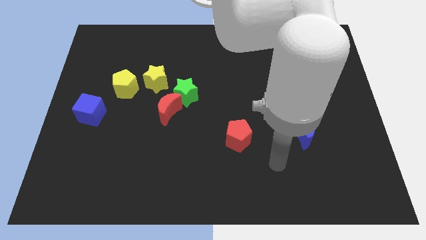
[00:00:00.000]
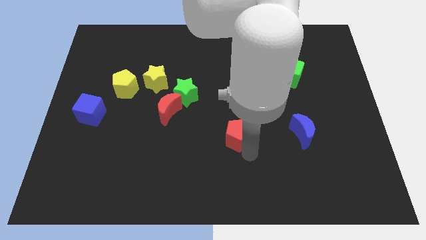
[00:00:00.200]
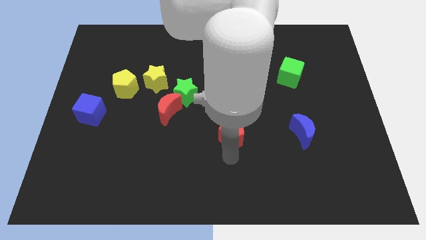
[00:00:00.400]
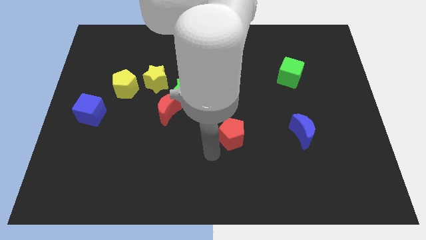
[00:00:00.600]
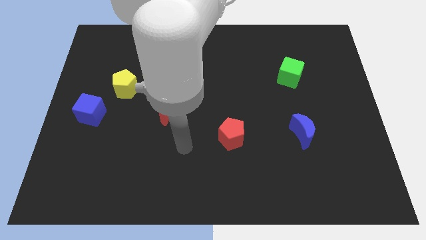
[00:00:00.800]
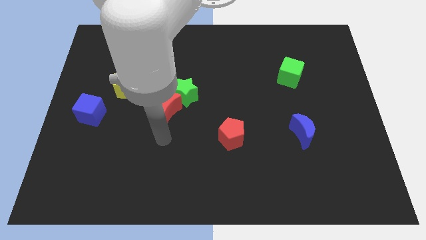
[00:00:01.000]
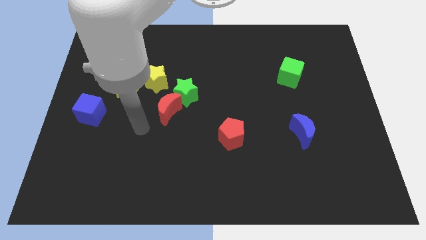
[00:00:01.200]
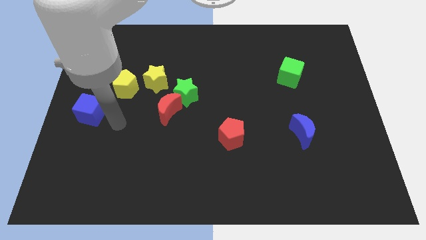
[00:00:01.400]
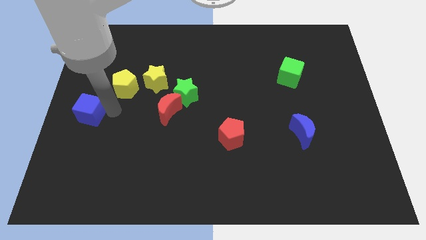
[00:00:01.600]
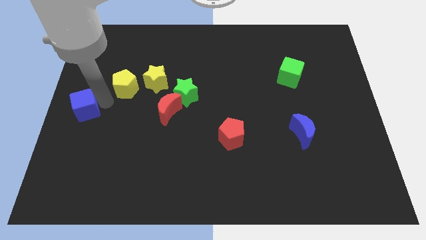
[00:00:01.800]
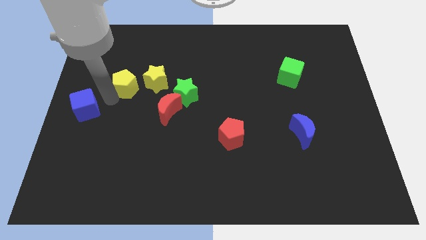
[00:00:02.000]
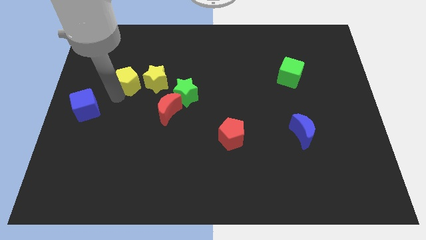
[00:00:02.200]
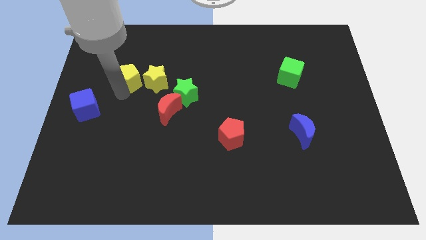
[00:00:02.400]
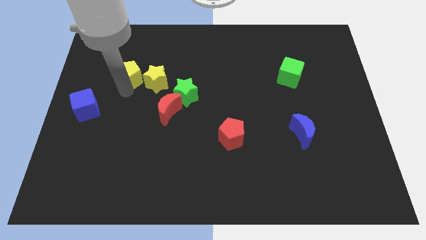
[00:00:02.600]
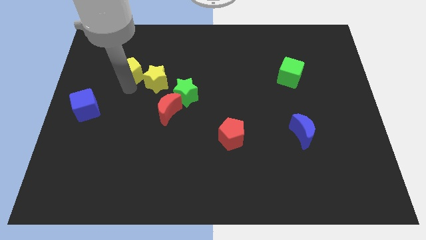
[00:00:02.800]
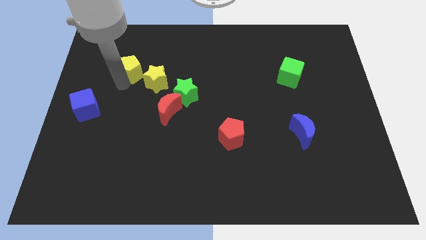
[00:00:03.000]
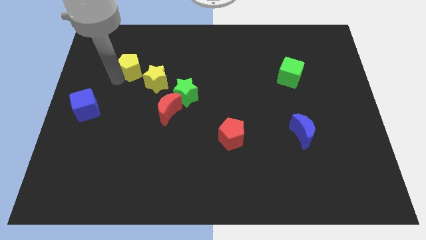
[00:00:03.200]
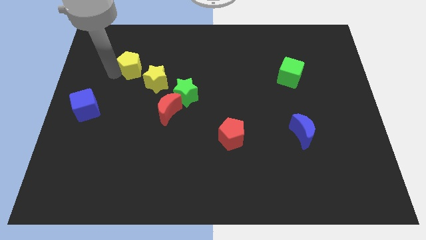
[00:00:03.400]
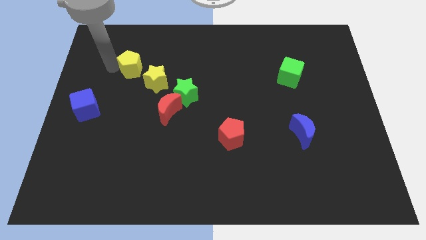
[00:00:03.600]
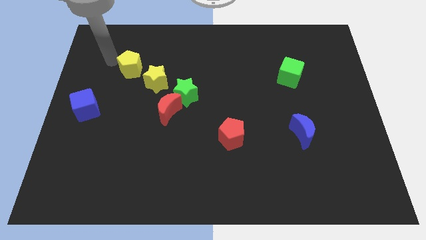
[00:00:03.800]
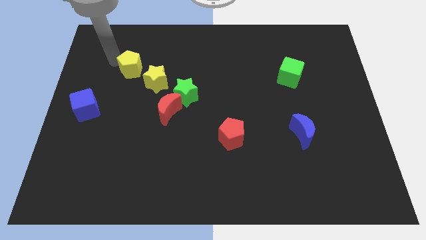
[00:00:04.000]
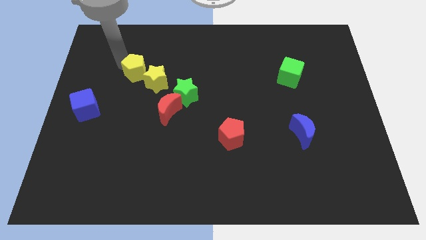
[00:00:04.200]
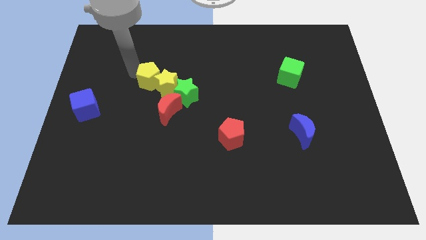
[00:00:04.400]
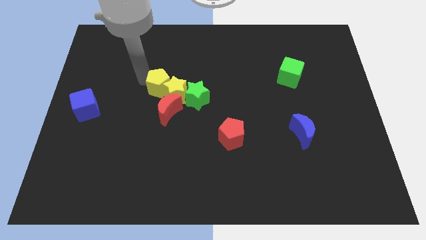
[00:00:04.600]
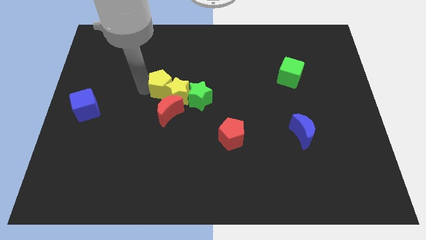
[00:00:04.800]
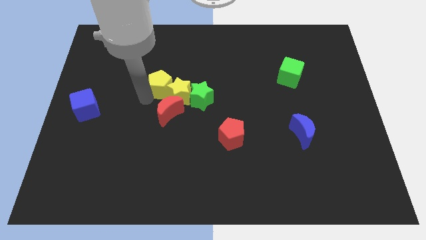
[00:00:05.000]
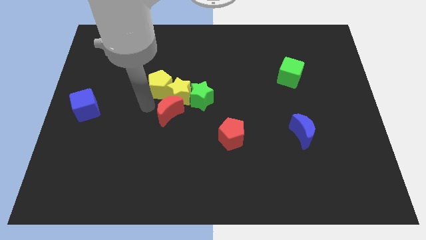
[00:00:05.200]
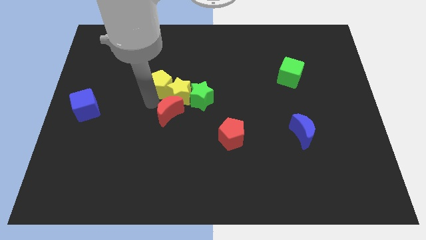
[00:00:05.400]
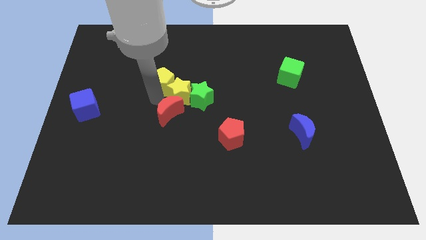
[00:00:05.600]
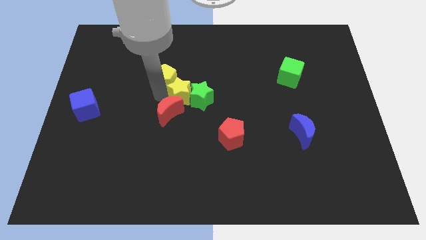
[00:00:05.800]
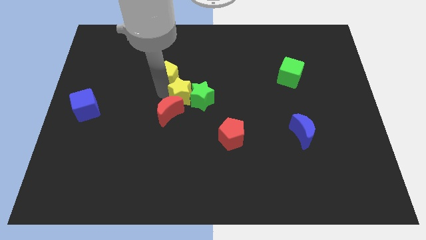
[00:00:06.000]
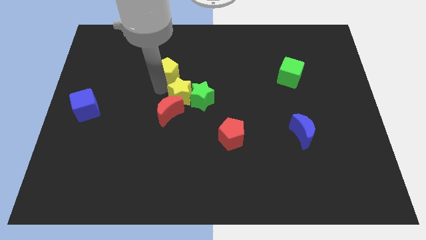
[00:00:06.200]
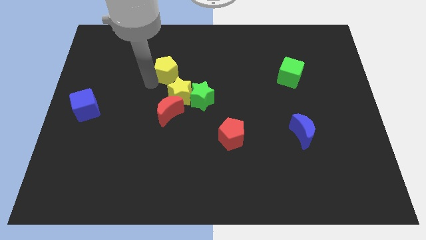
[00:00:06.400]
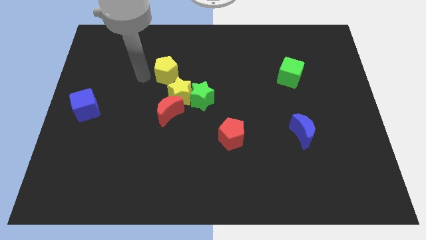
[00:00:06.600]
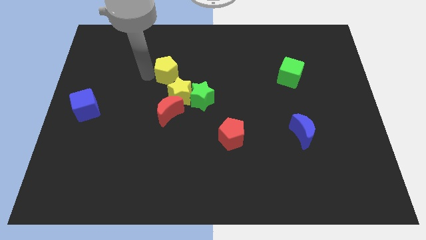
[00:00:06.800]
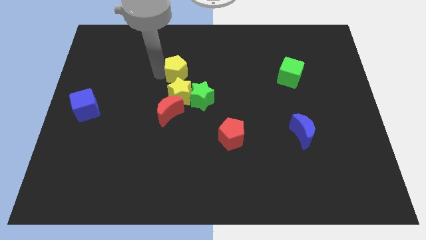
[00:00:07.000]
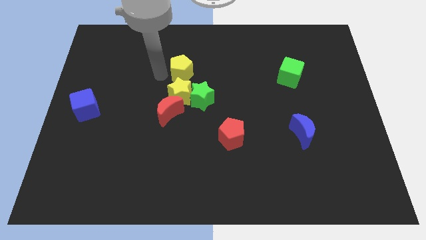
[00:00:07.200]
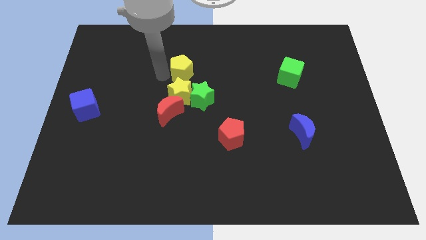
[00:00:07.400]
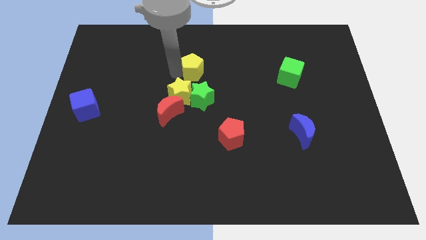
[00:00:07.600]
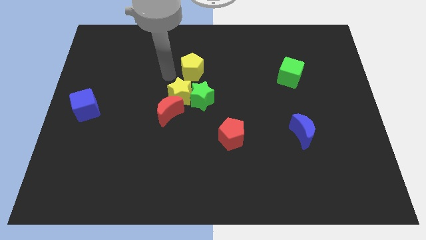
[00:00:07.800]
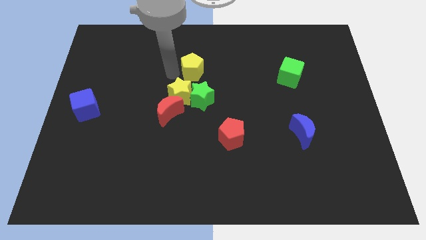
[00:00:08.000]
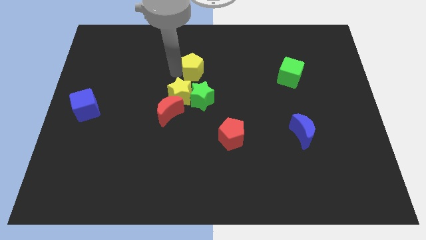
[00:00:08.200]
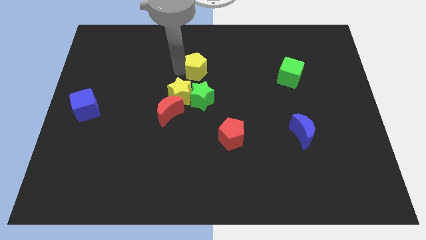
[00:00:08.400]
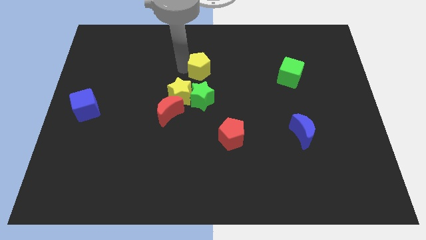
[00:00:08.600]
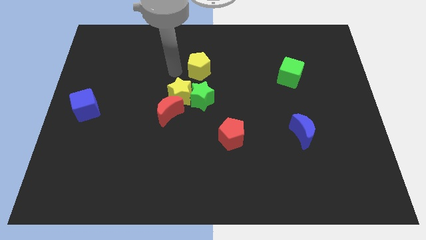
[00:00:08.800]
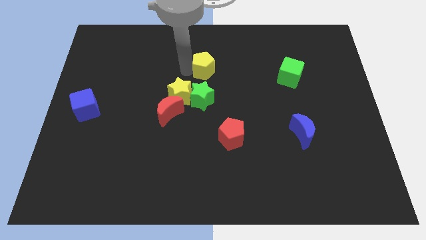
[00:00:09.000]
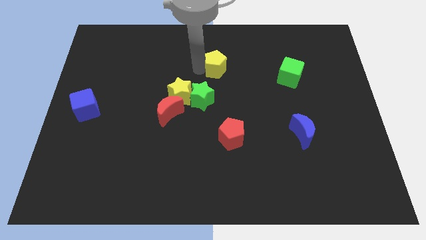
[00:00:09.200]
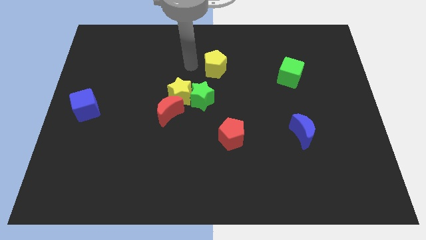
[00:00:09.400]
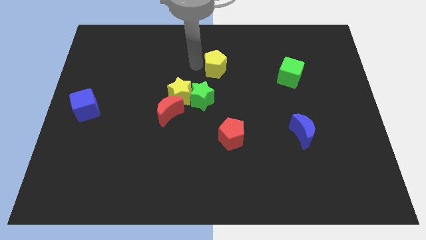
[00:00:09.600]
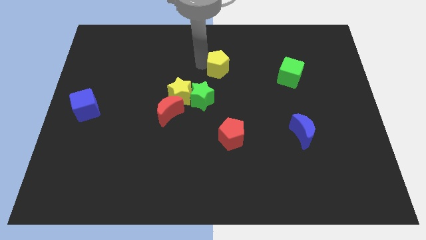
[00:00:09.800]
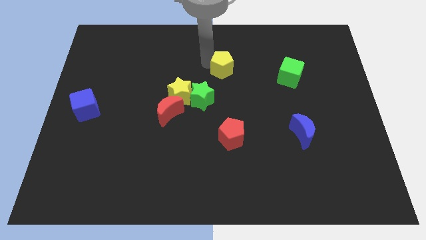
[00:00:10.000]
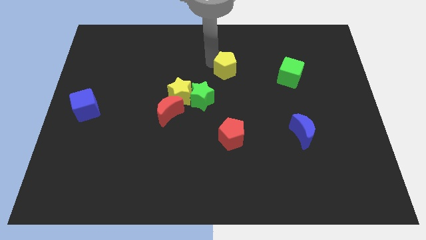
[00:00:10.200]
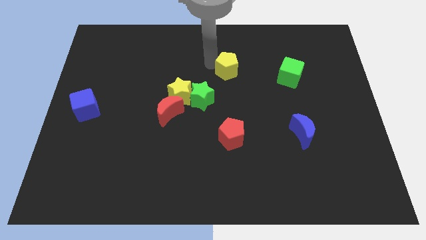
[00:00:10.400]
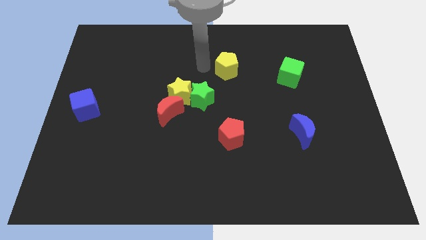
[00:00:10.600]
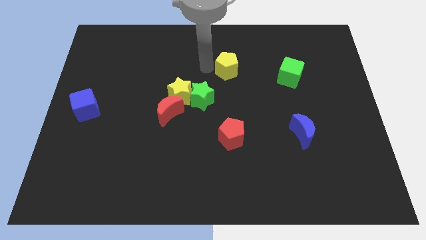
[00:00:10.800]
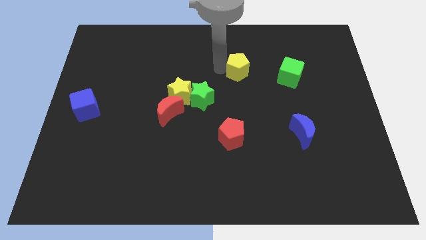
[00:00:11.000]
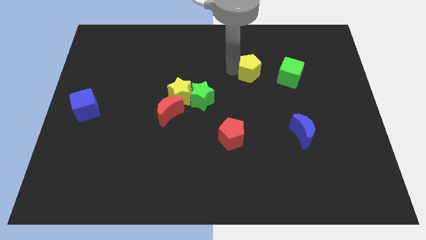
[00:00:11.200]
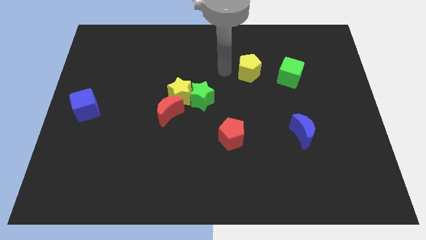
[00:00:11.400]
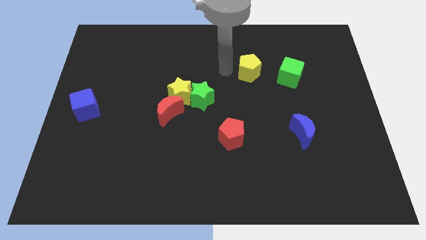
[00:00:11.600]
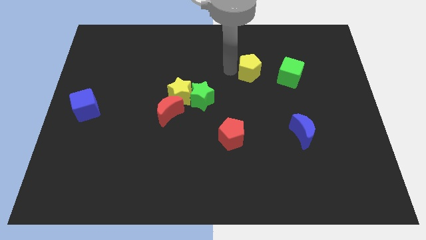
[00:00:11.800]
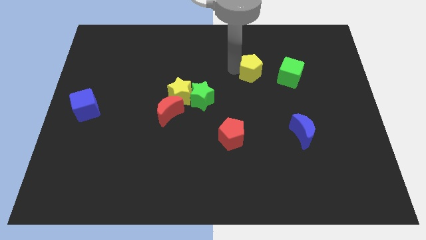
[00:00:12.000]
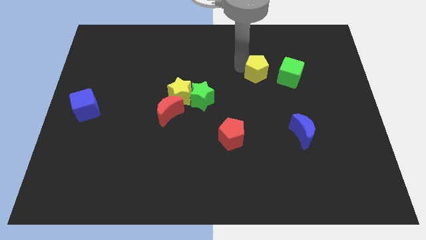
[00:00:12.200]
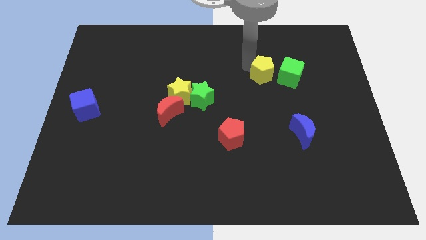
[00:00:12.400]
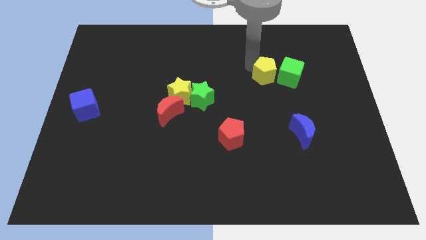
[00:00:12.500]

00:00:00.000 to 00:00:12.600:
put the yellow pentagon towards the green cube
